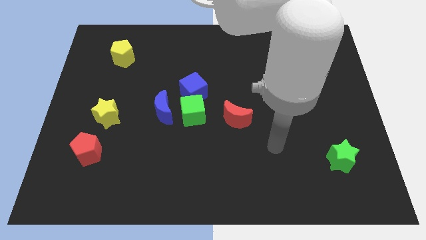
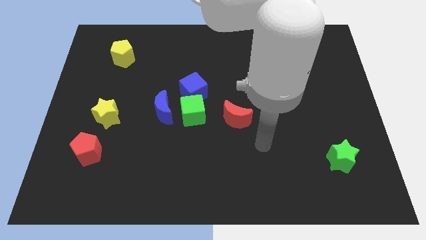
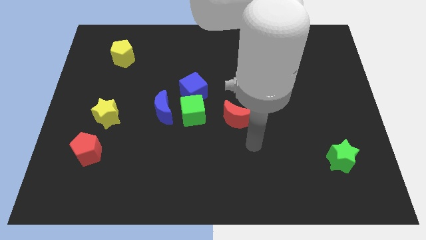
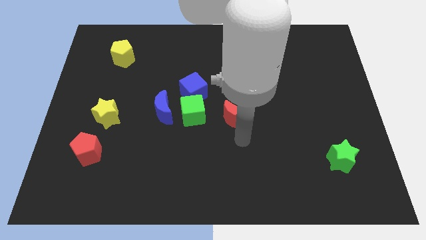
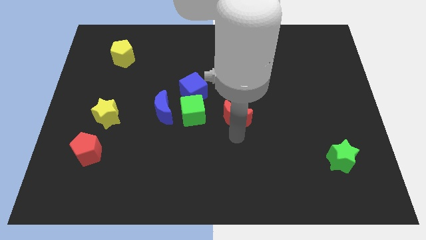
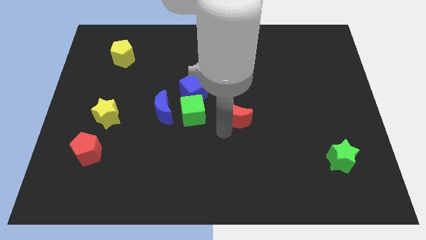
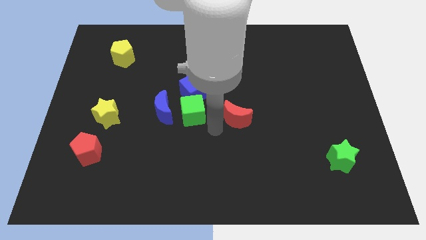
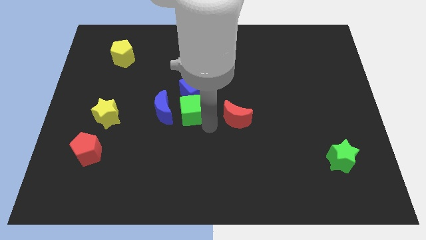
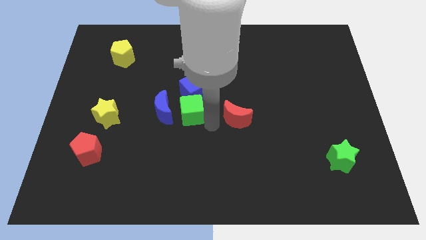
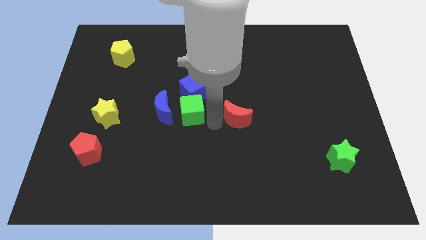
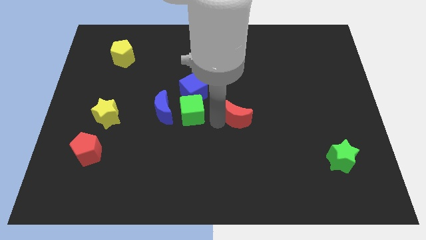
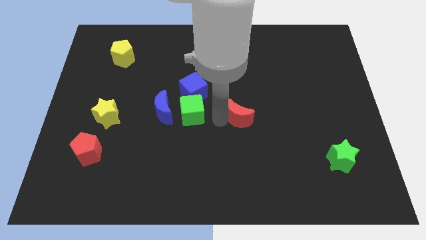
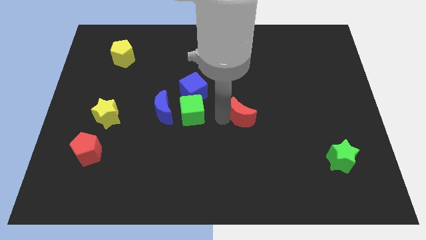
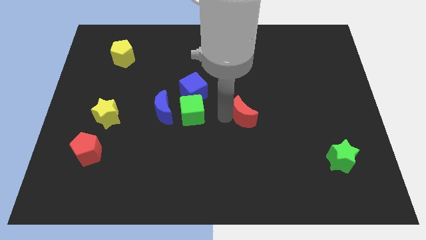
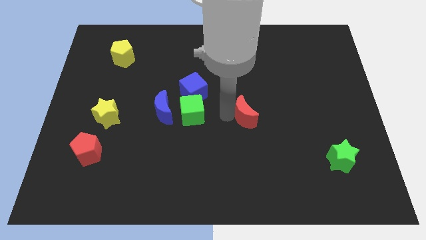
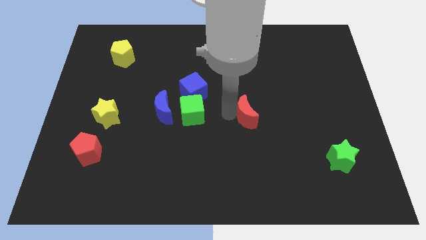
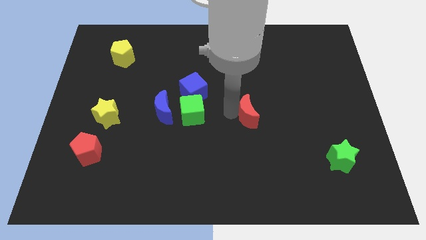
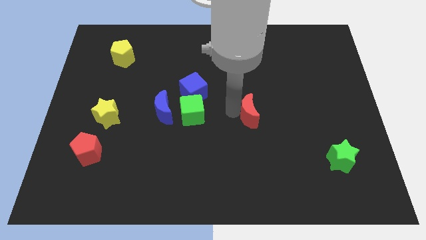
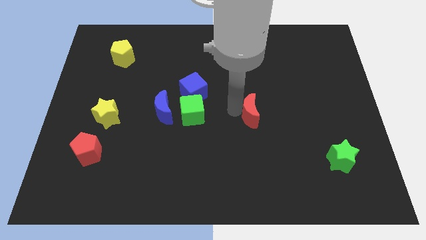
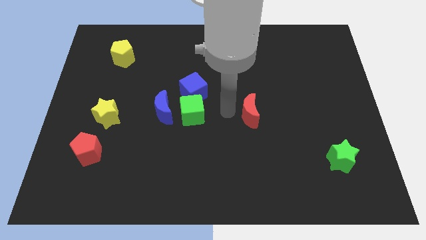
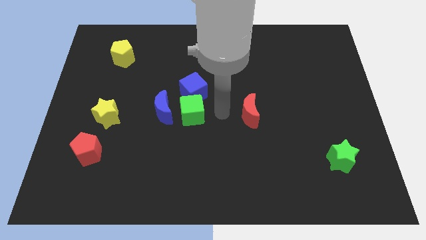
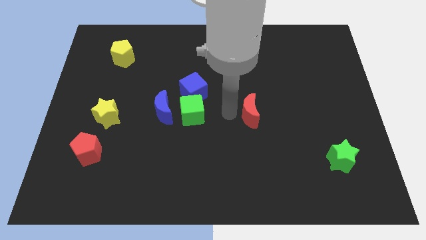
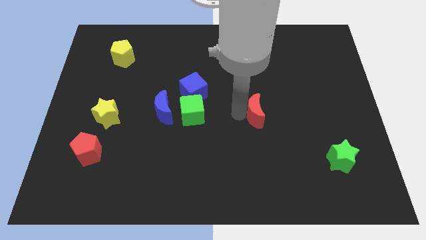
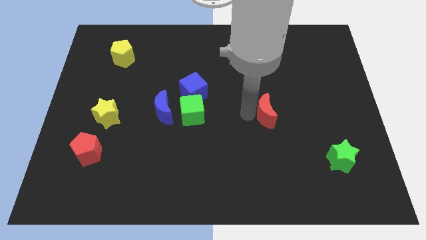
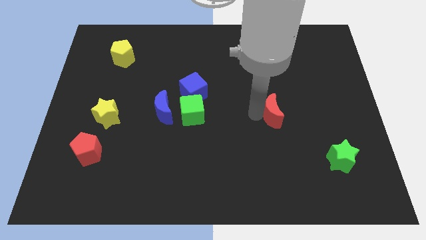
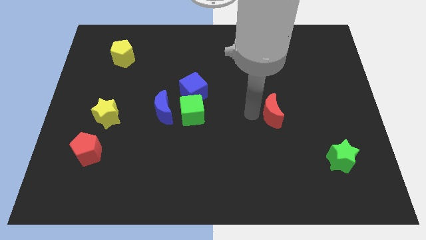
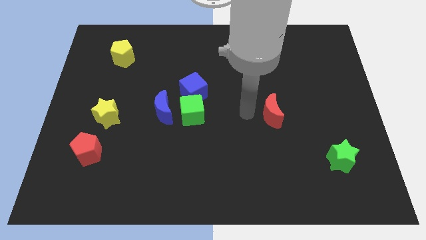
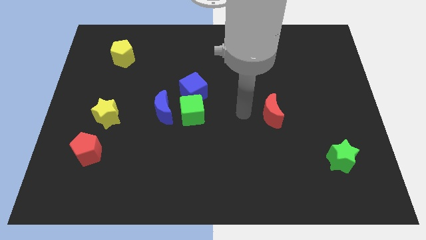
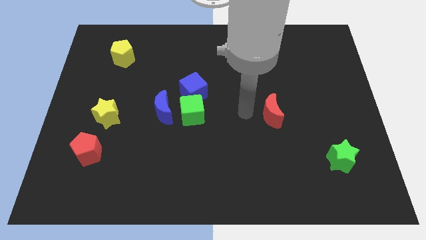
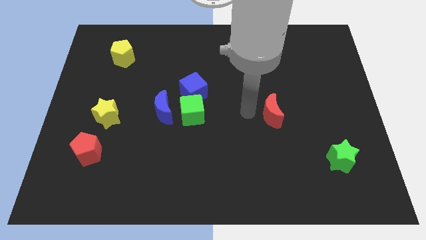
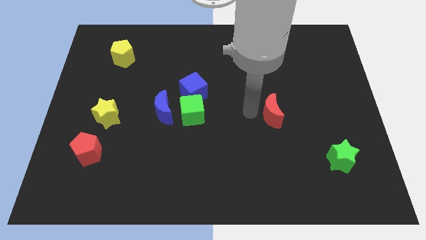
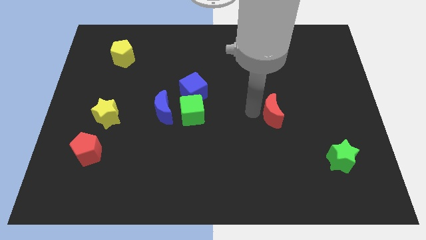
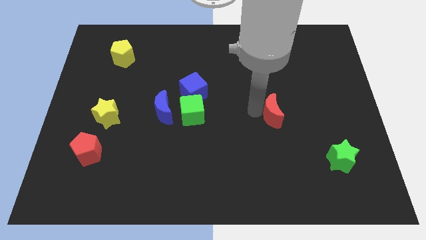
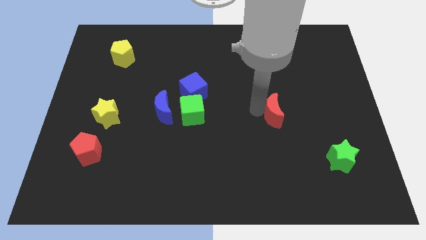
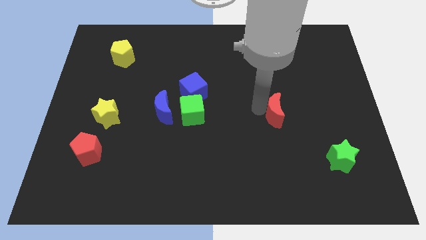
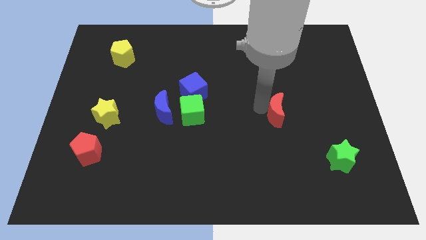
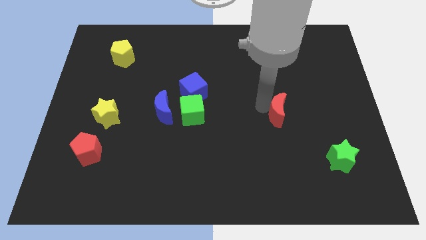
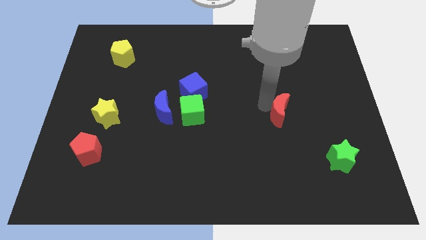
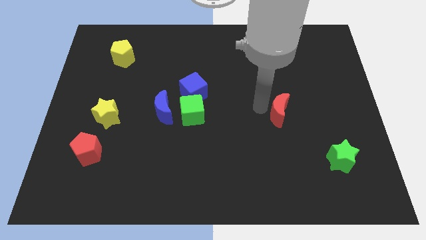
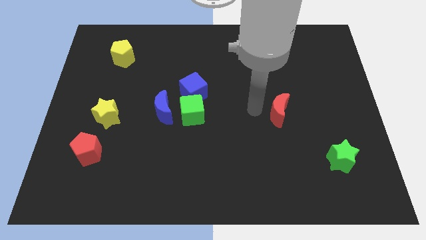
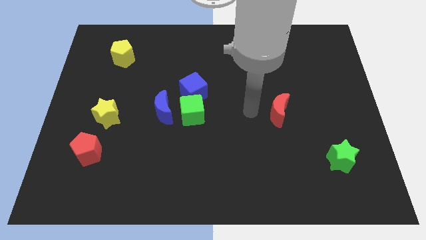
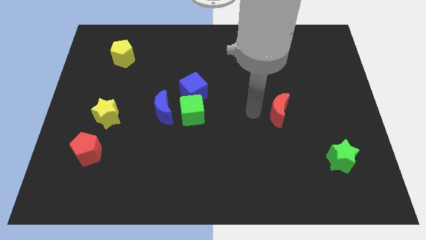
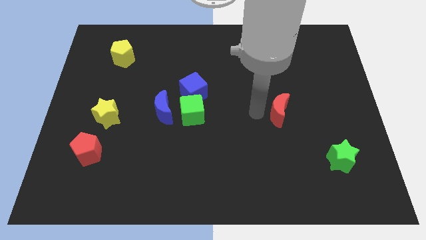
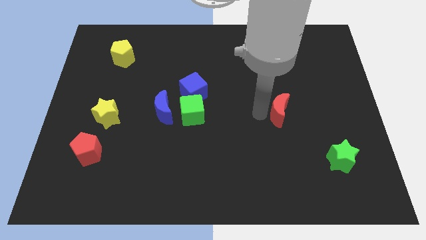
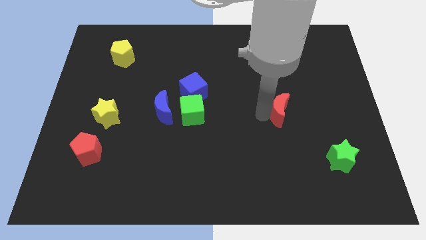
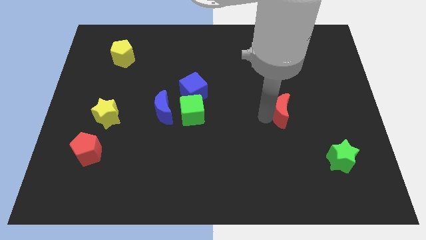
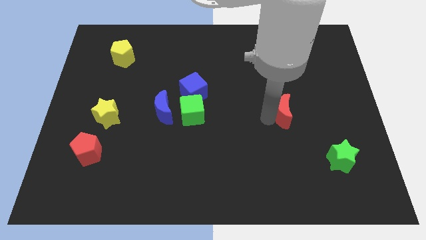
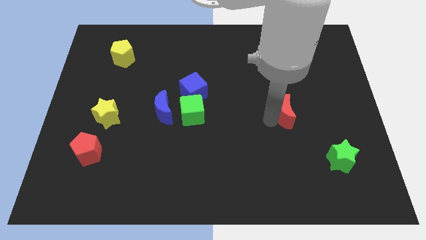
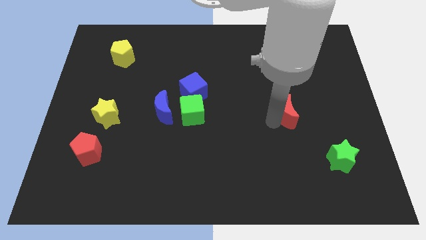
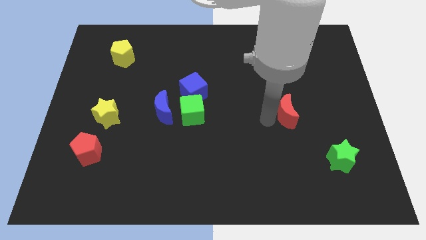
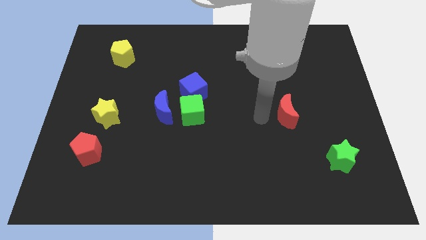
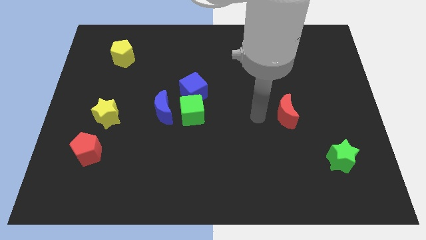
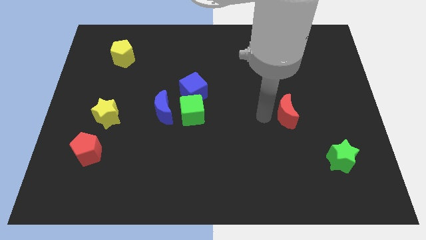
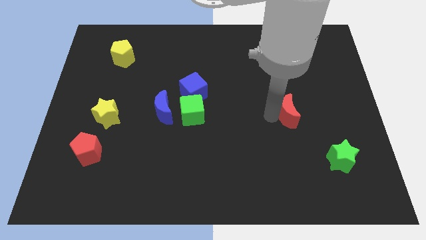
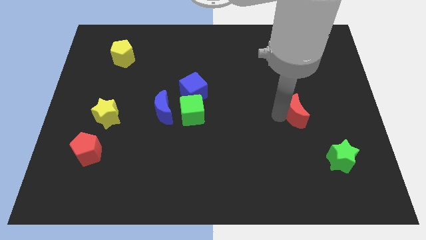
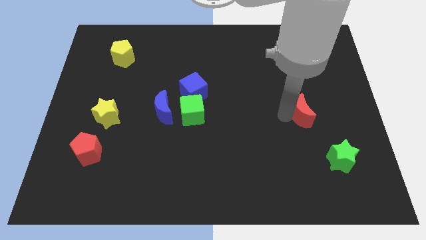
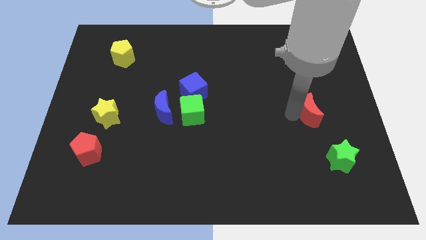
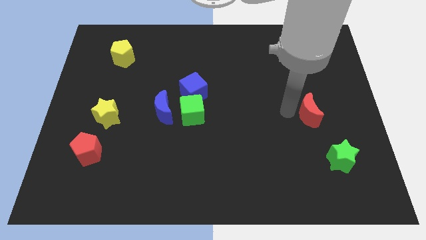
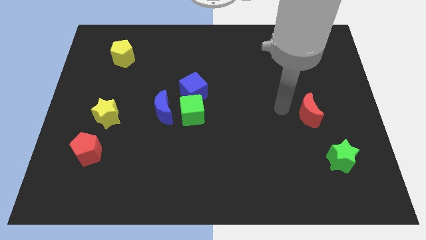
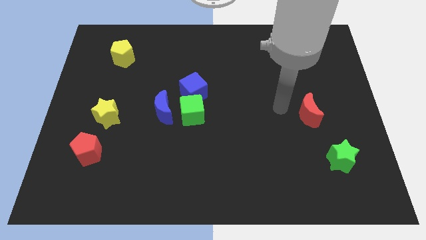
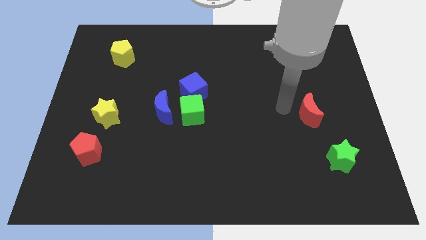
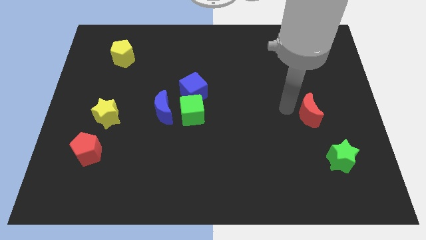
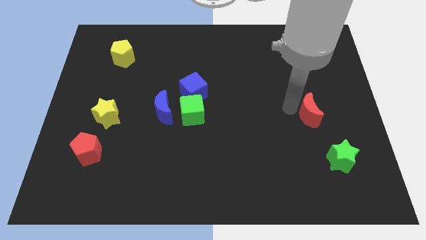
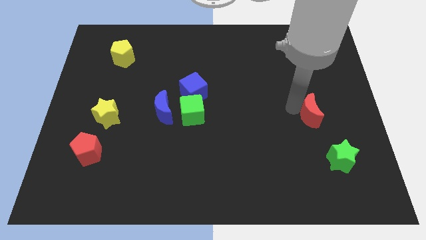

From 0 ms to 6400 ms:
put the red moon above the green star
